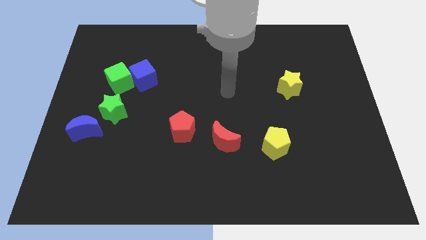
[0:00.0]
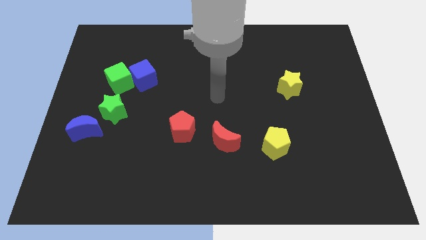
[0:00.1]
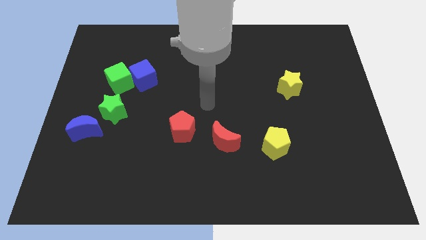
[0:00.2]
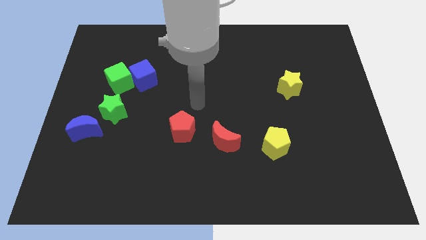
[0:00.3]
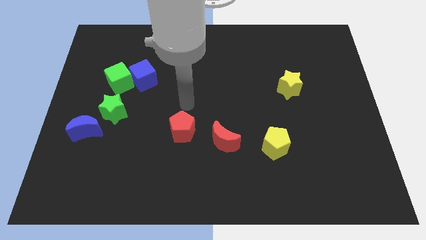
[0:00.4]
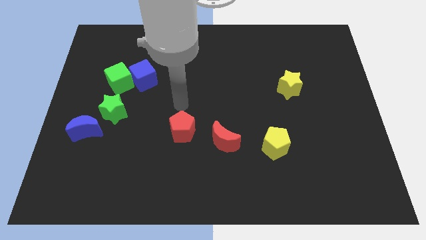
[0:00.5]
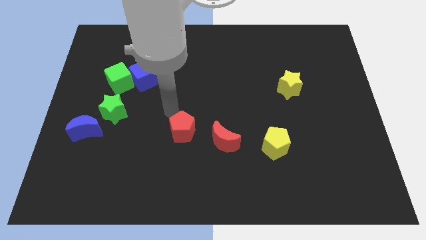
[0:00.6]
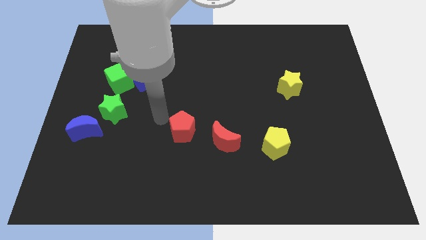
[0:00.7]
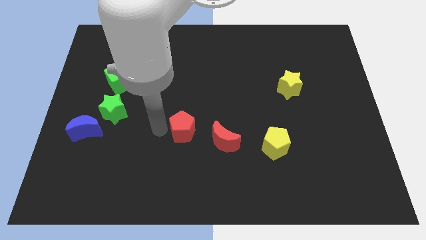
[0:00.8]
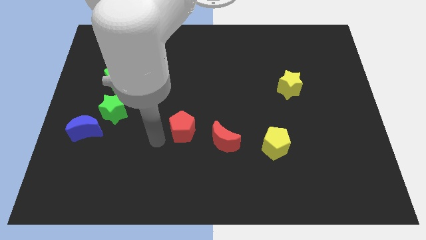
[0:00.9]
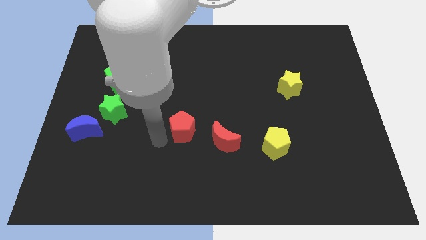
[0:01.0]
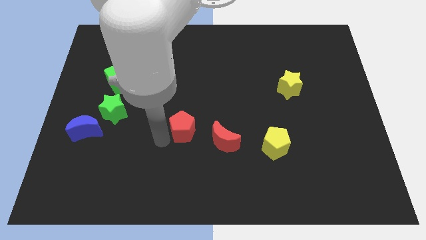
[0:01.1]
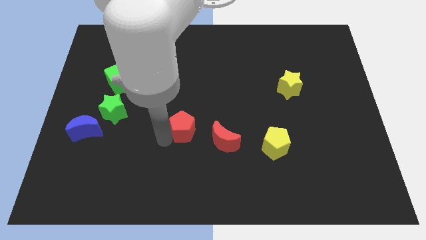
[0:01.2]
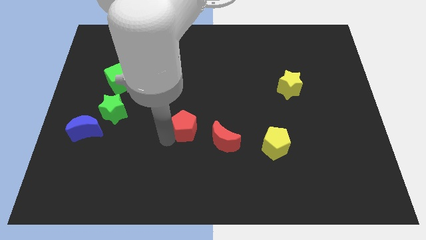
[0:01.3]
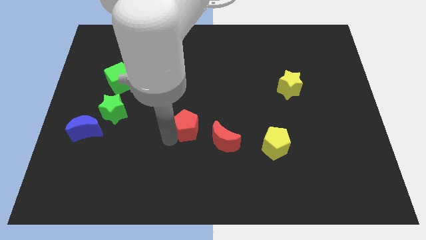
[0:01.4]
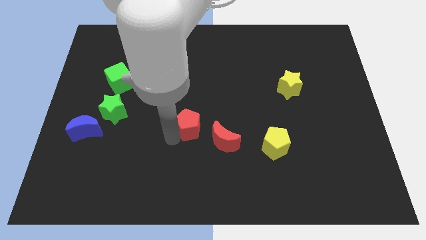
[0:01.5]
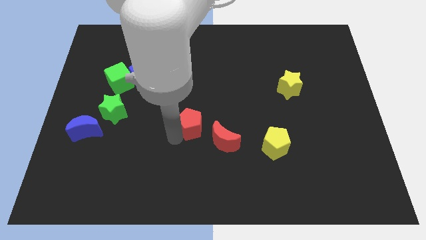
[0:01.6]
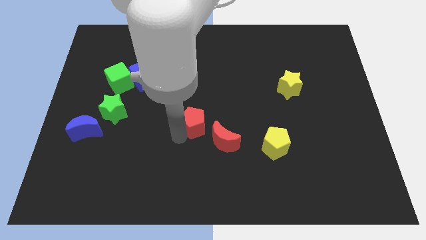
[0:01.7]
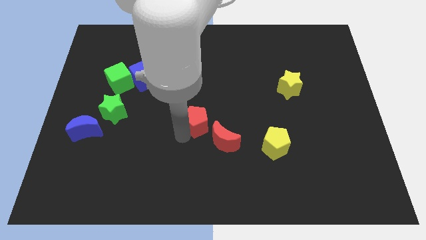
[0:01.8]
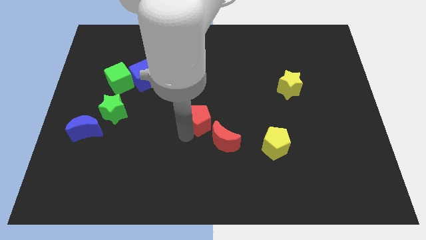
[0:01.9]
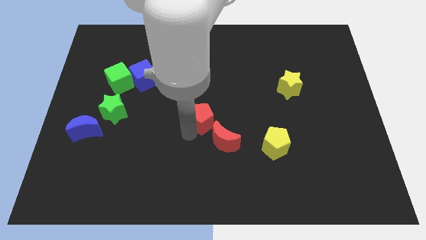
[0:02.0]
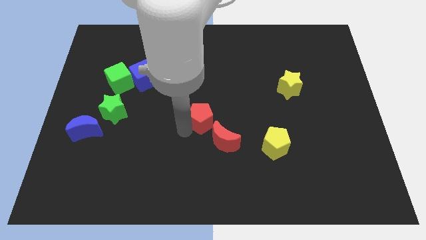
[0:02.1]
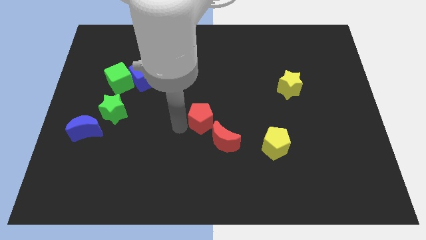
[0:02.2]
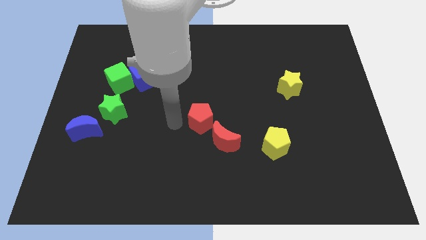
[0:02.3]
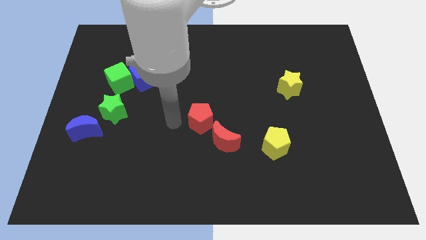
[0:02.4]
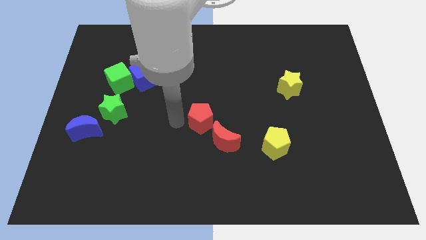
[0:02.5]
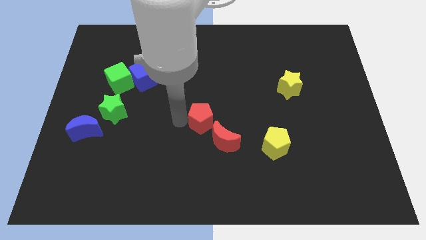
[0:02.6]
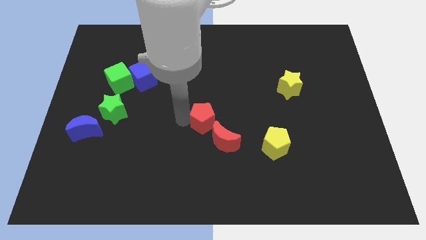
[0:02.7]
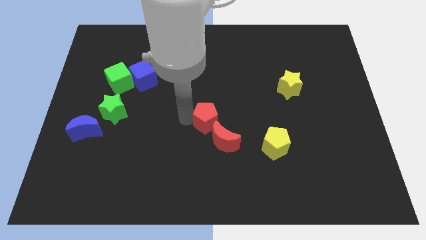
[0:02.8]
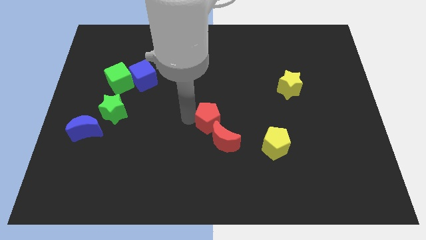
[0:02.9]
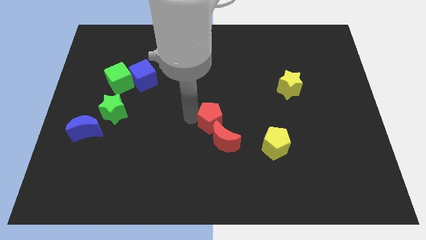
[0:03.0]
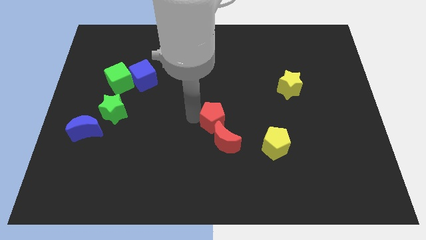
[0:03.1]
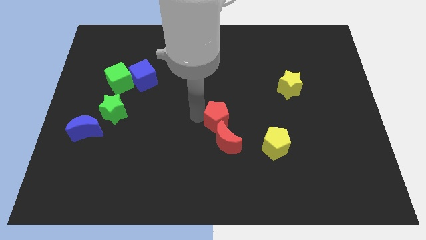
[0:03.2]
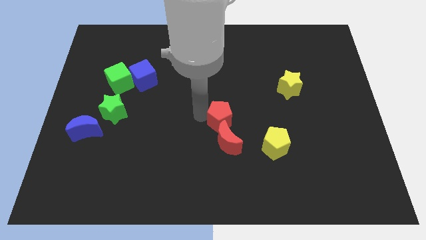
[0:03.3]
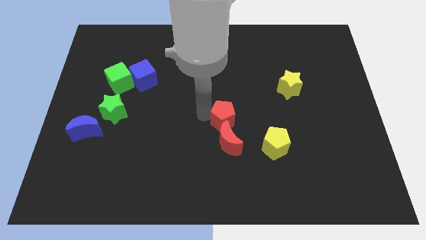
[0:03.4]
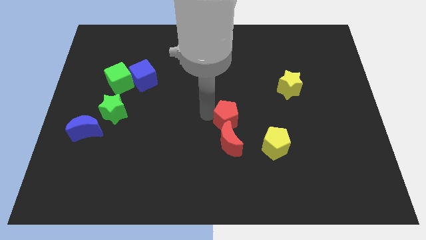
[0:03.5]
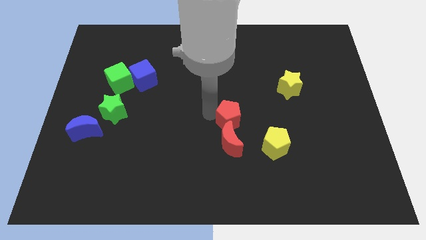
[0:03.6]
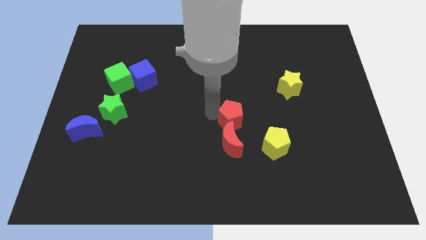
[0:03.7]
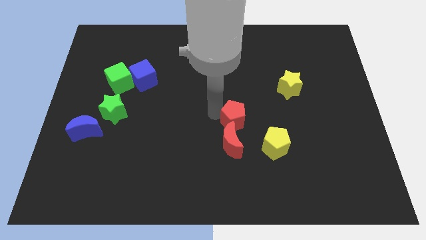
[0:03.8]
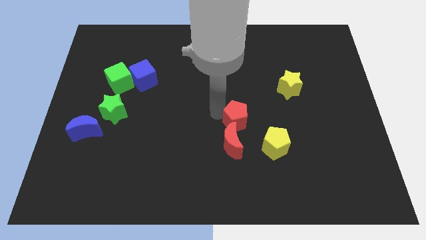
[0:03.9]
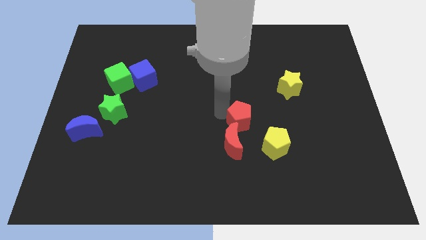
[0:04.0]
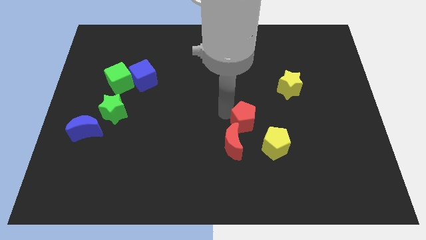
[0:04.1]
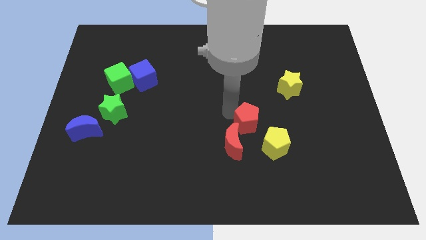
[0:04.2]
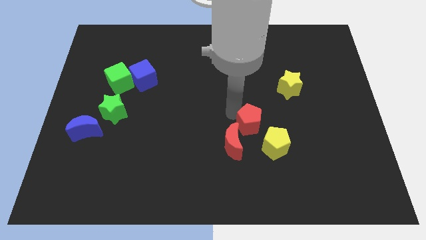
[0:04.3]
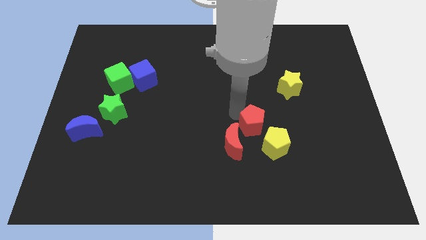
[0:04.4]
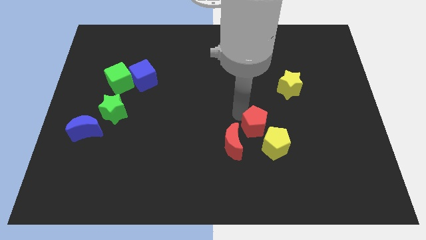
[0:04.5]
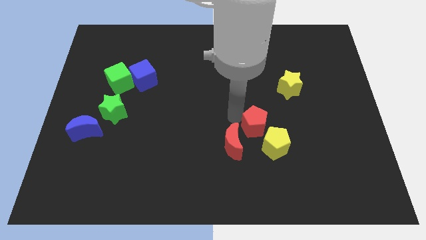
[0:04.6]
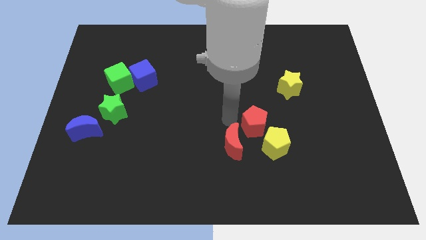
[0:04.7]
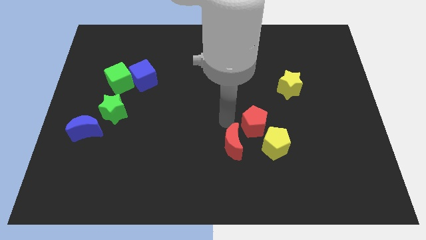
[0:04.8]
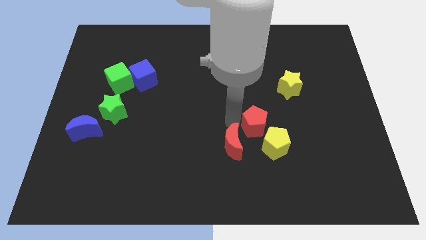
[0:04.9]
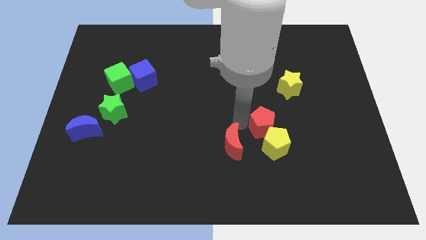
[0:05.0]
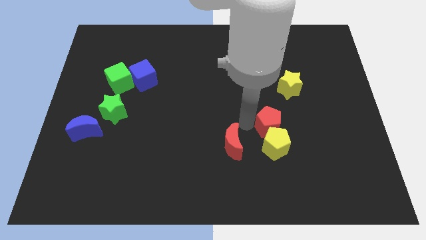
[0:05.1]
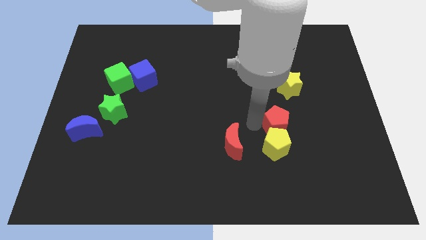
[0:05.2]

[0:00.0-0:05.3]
push the red pentagon to the right

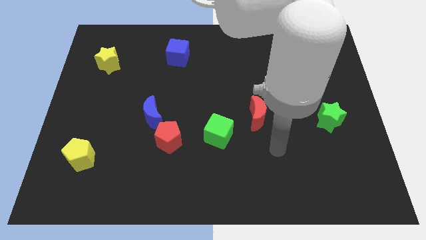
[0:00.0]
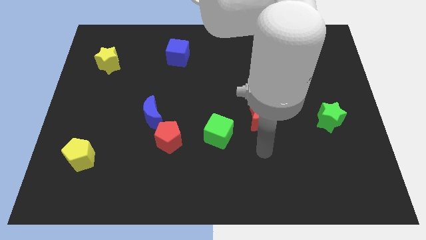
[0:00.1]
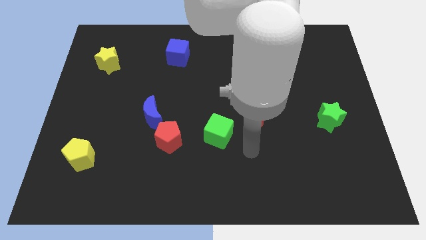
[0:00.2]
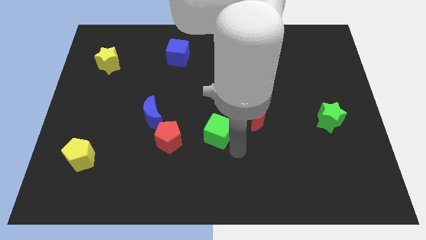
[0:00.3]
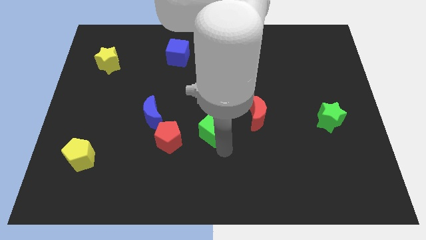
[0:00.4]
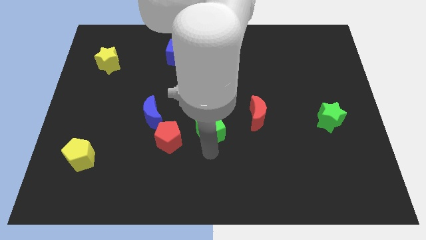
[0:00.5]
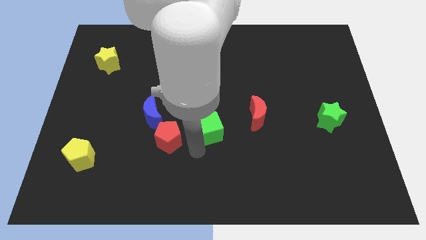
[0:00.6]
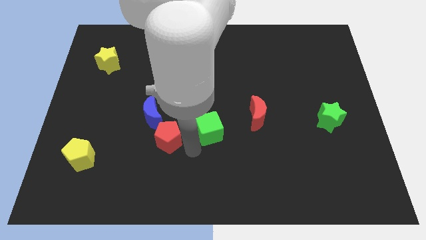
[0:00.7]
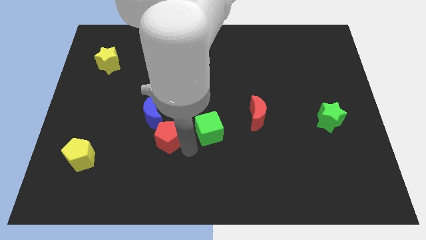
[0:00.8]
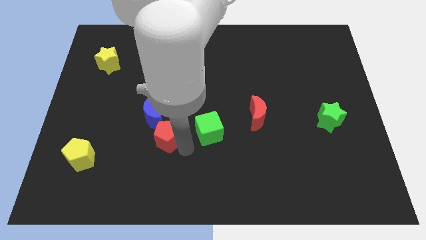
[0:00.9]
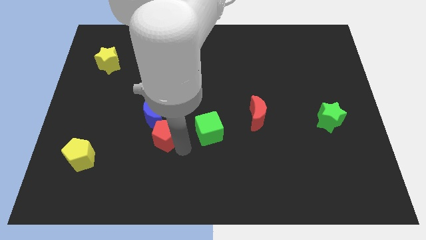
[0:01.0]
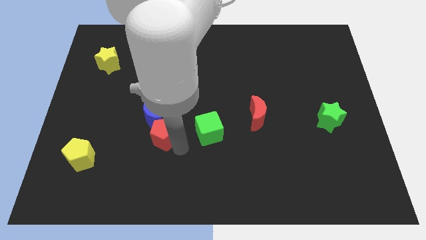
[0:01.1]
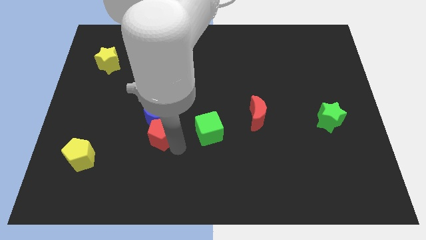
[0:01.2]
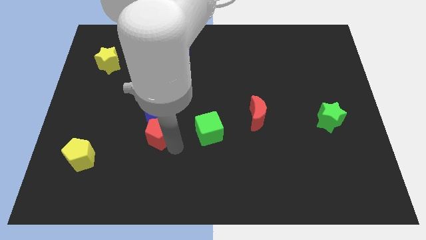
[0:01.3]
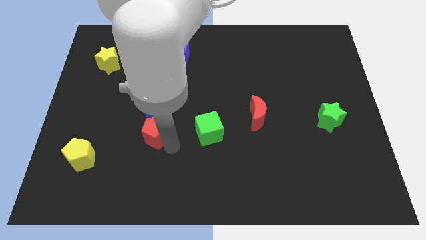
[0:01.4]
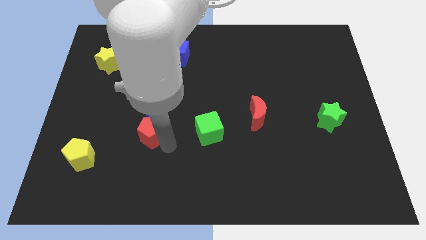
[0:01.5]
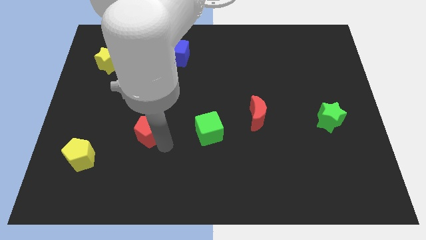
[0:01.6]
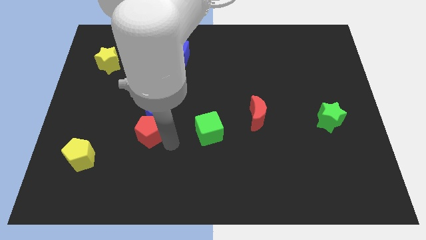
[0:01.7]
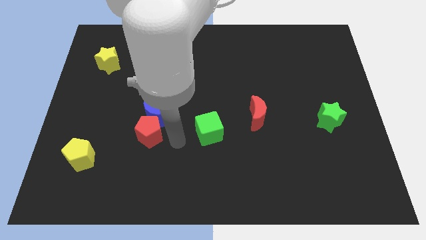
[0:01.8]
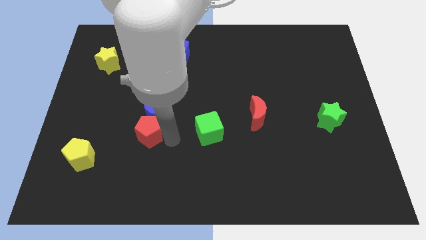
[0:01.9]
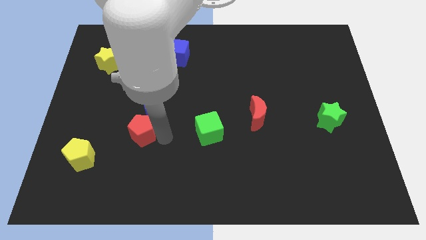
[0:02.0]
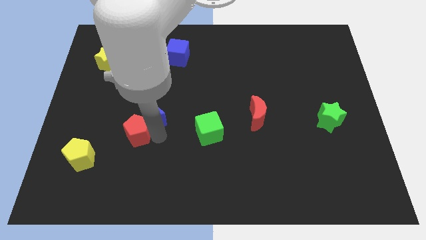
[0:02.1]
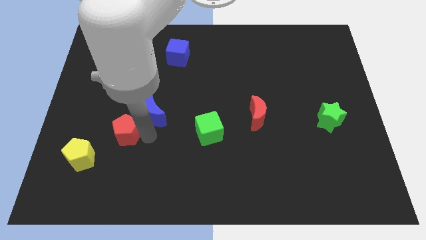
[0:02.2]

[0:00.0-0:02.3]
slide the red pentagon a little bit up and to the left diagonally

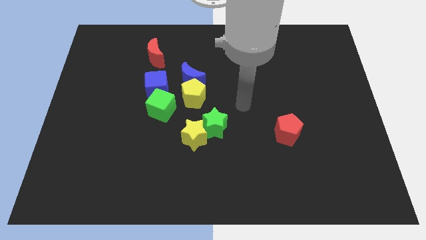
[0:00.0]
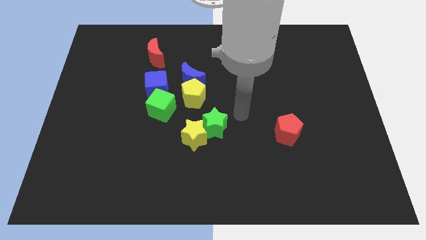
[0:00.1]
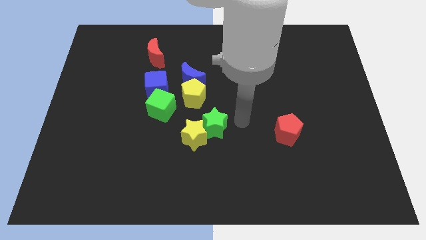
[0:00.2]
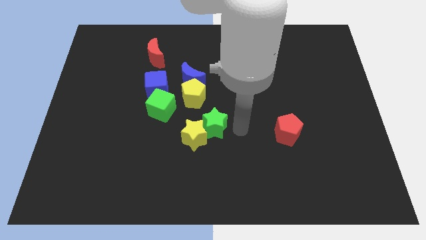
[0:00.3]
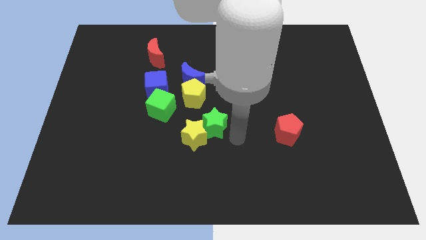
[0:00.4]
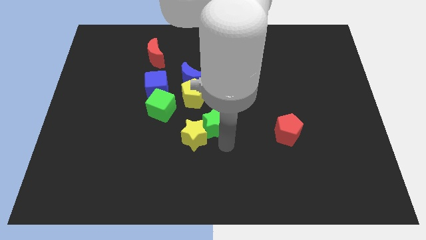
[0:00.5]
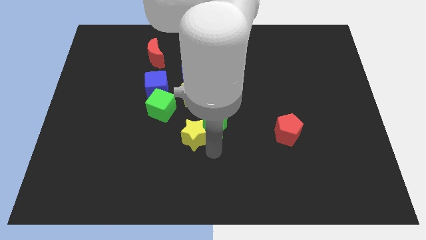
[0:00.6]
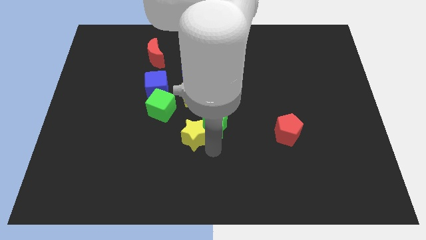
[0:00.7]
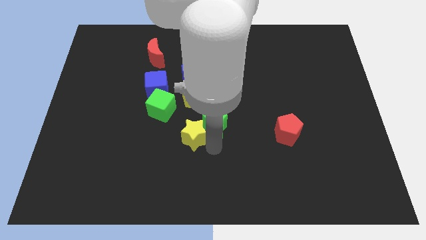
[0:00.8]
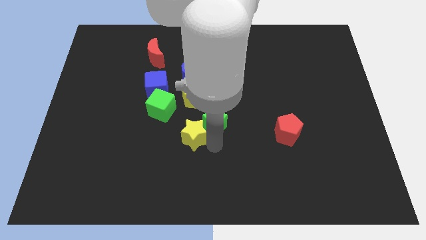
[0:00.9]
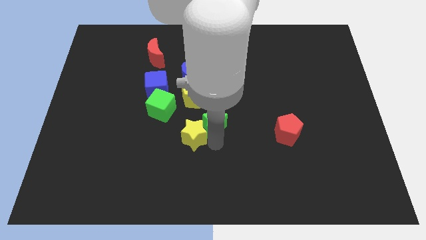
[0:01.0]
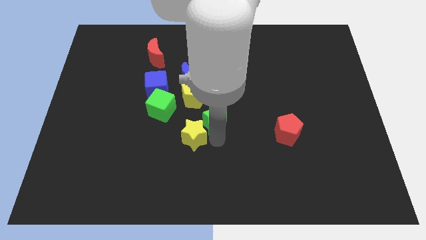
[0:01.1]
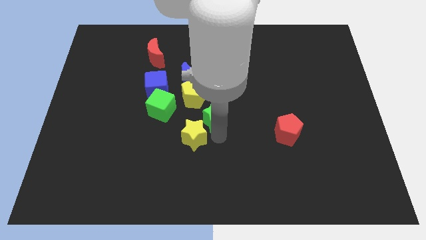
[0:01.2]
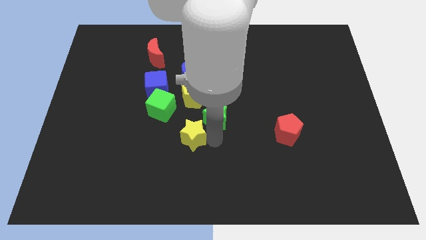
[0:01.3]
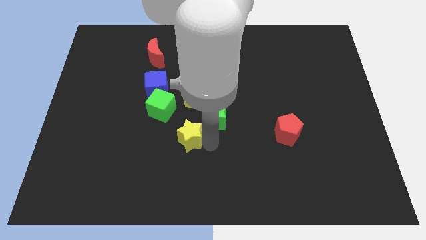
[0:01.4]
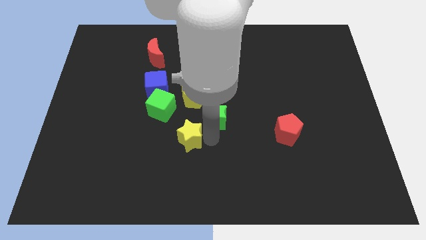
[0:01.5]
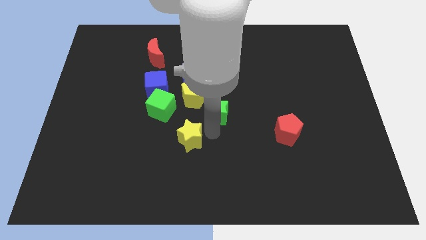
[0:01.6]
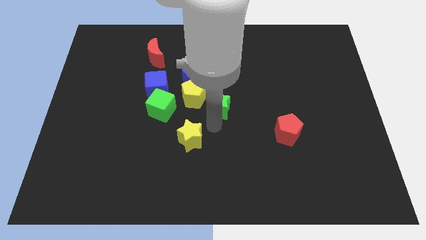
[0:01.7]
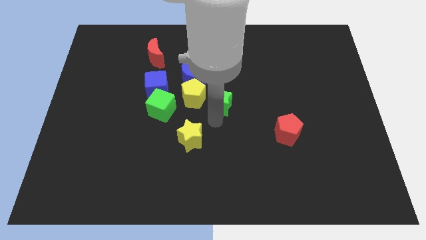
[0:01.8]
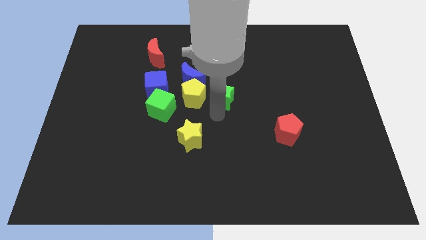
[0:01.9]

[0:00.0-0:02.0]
slightly push the green star upwards
